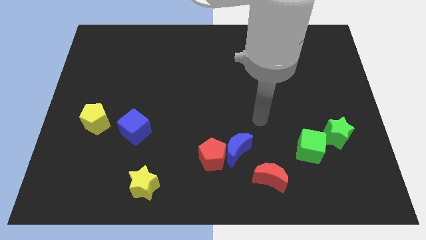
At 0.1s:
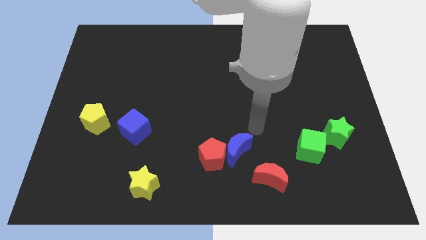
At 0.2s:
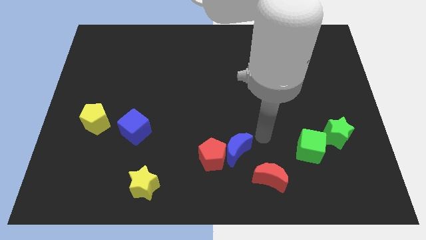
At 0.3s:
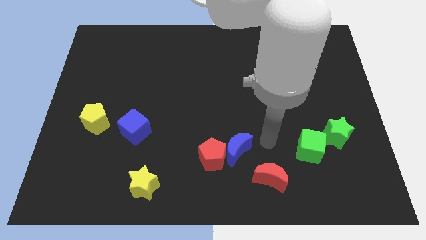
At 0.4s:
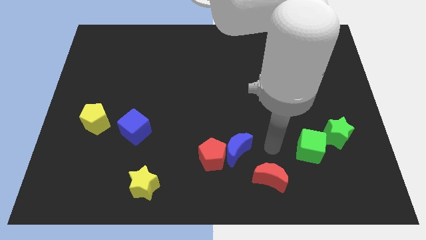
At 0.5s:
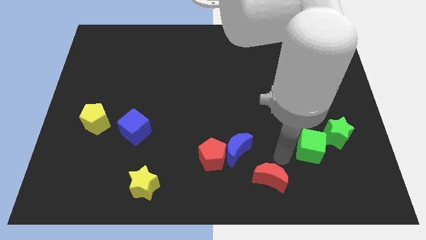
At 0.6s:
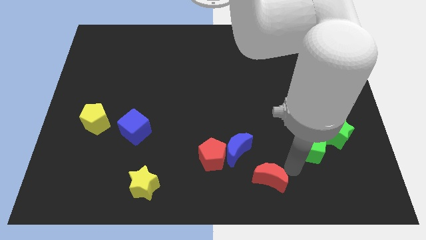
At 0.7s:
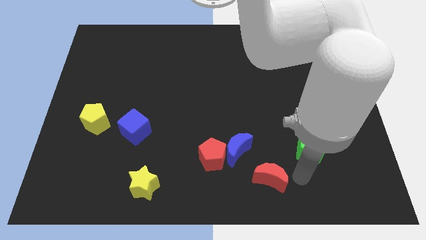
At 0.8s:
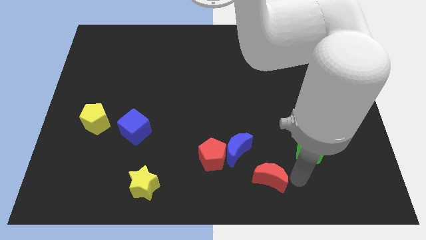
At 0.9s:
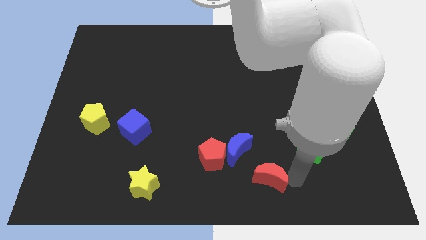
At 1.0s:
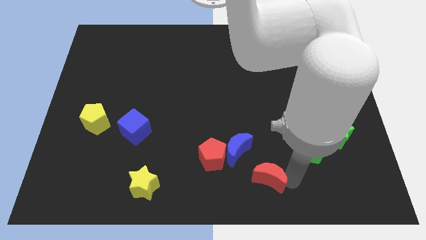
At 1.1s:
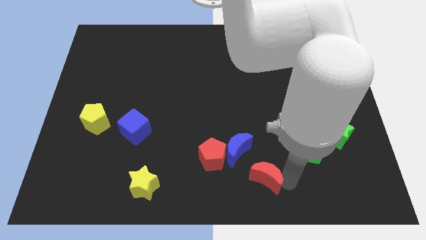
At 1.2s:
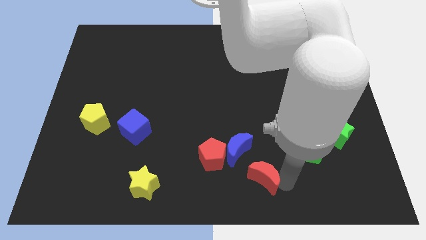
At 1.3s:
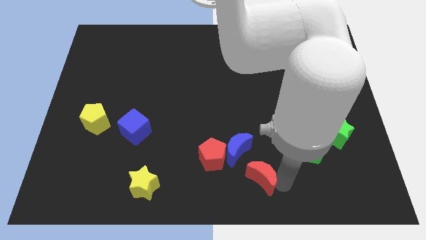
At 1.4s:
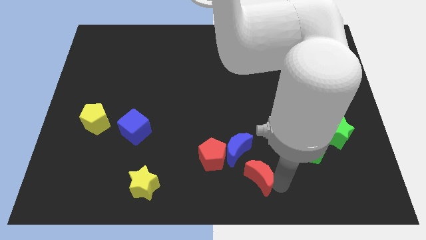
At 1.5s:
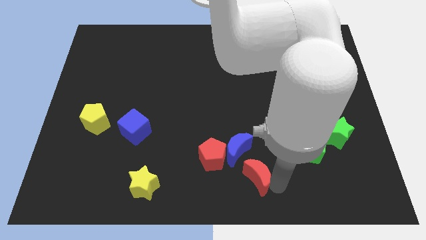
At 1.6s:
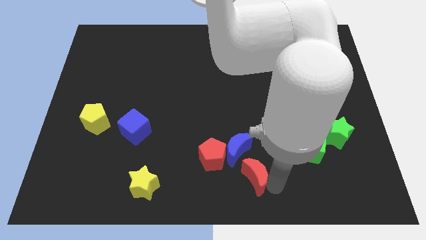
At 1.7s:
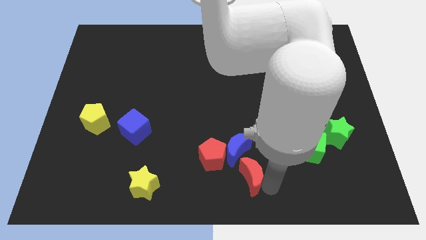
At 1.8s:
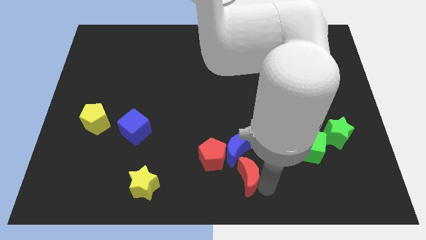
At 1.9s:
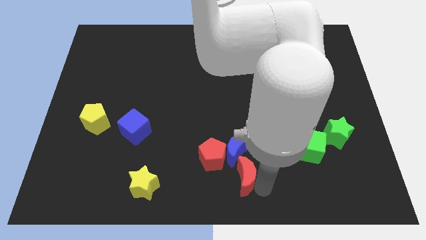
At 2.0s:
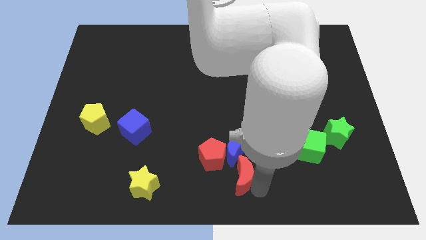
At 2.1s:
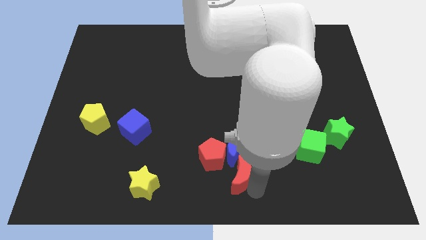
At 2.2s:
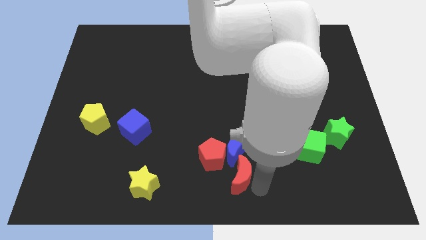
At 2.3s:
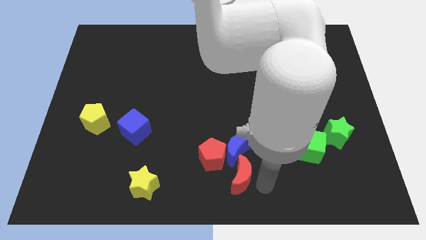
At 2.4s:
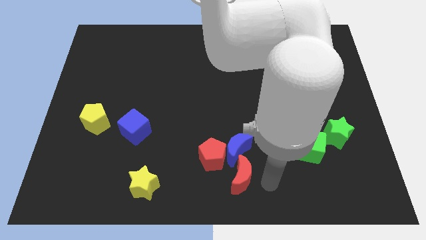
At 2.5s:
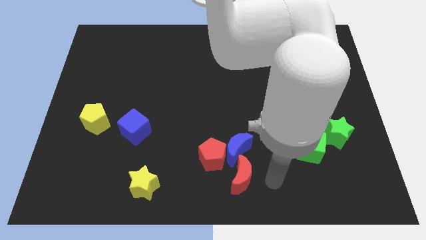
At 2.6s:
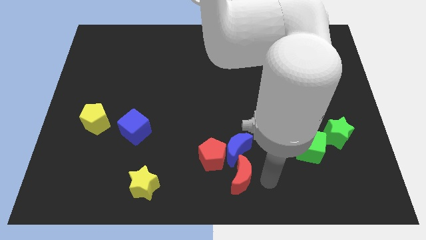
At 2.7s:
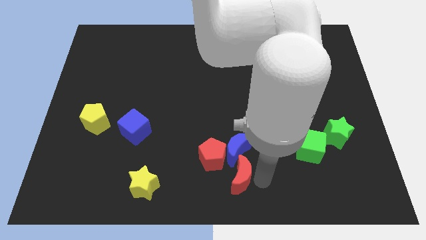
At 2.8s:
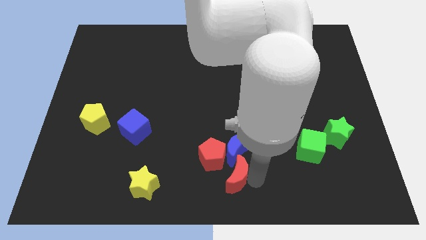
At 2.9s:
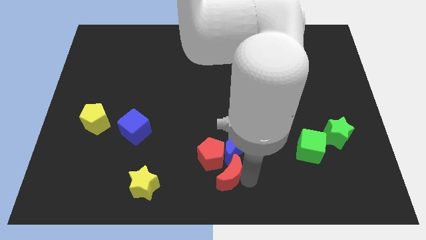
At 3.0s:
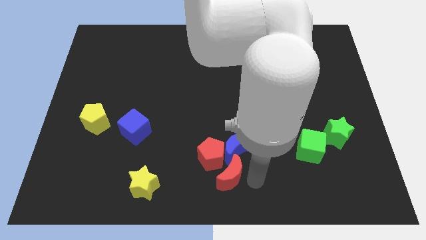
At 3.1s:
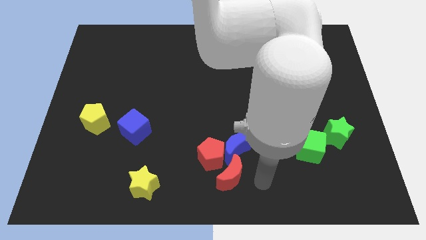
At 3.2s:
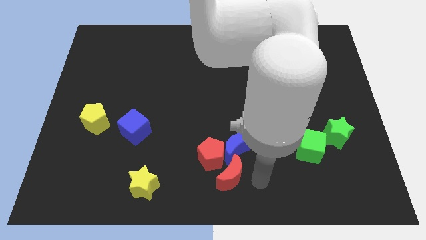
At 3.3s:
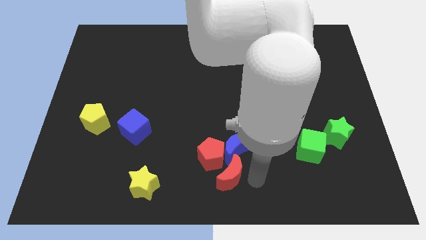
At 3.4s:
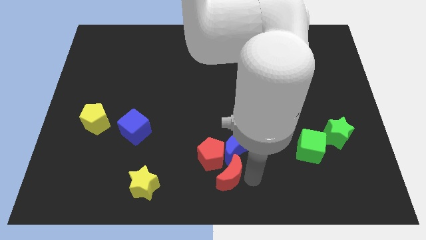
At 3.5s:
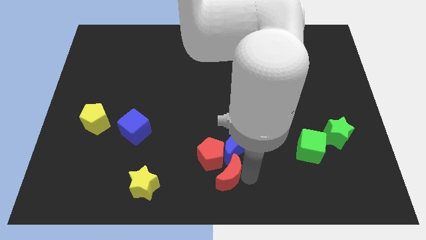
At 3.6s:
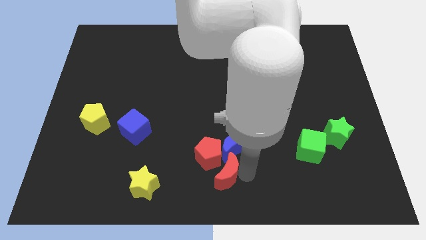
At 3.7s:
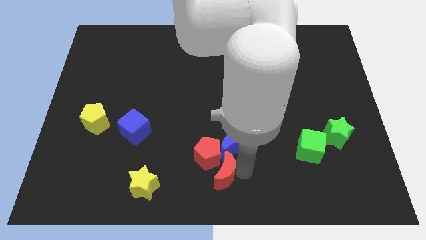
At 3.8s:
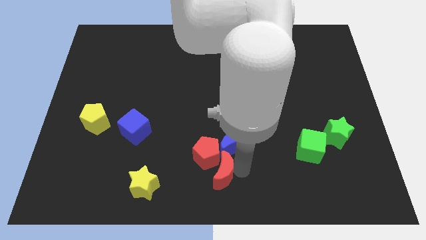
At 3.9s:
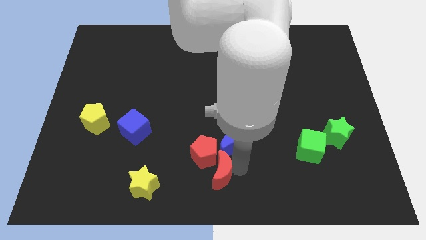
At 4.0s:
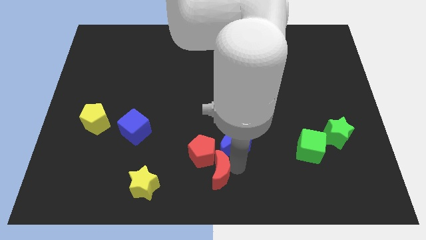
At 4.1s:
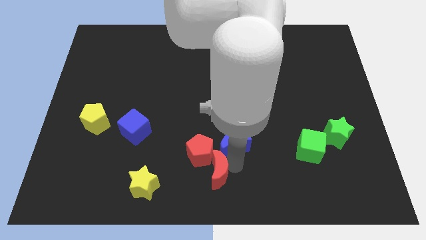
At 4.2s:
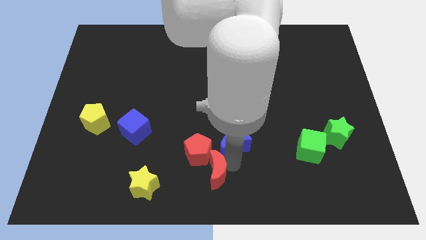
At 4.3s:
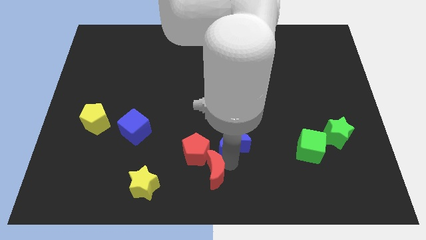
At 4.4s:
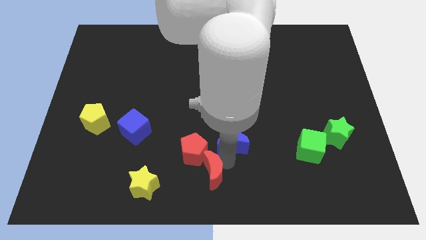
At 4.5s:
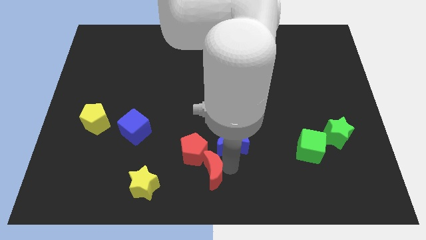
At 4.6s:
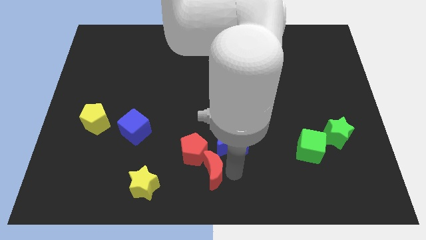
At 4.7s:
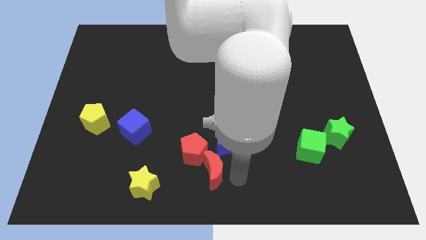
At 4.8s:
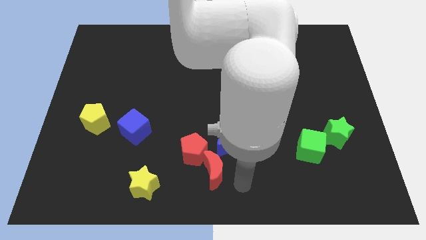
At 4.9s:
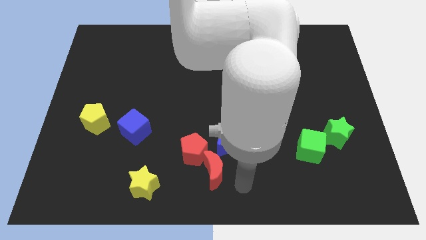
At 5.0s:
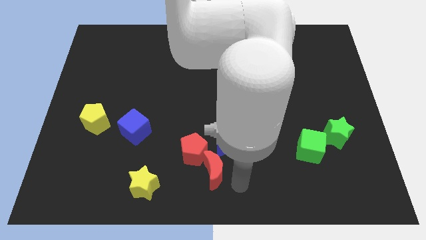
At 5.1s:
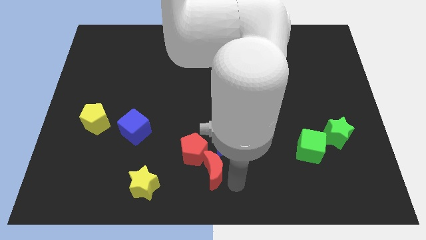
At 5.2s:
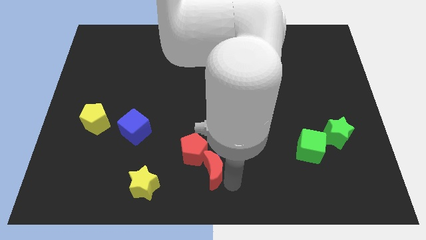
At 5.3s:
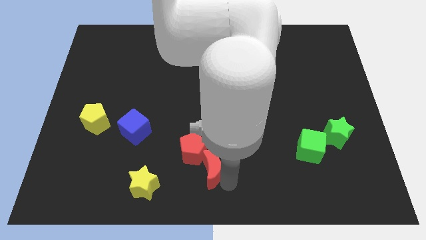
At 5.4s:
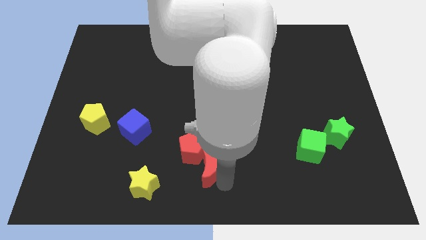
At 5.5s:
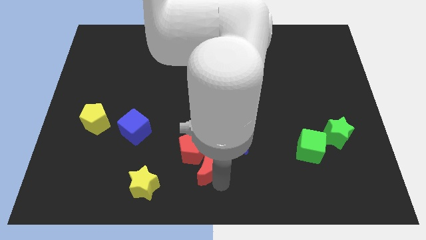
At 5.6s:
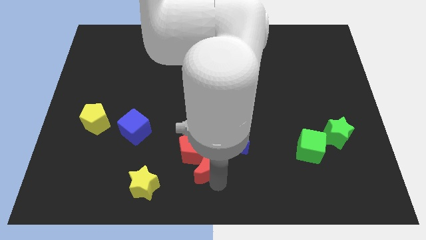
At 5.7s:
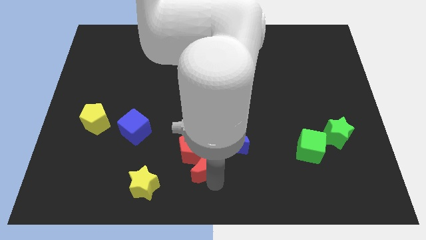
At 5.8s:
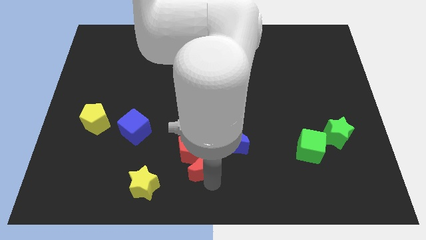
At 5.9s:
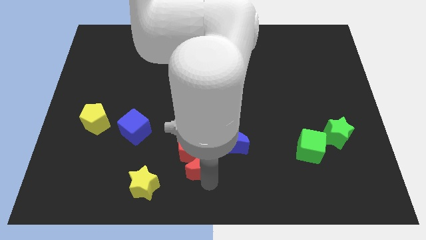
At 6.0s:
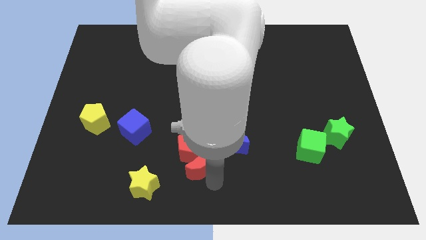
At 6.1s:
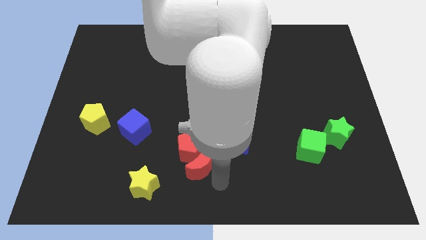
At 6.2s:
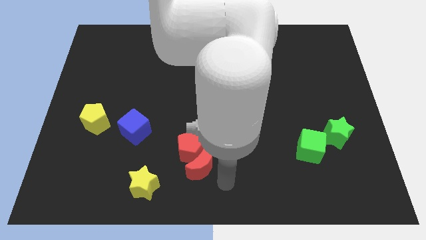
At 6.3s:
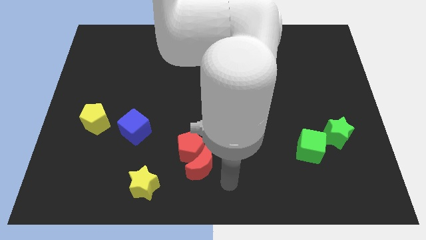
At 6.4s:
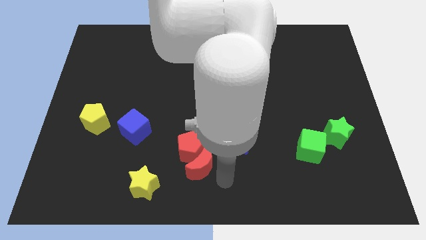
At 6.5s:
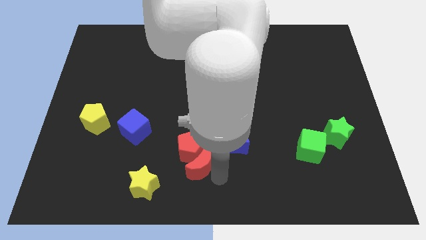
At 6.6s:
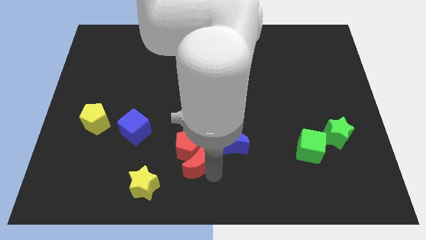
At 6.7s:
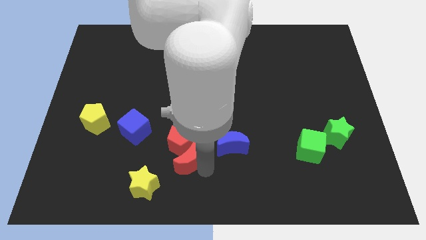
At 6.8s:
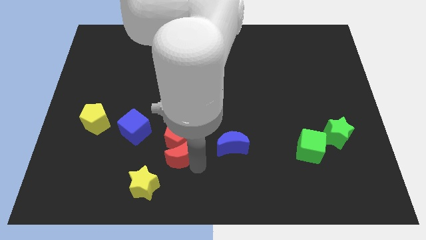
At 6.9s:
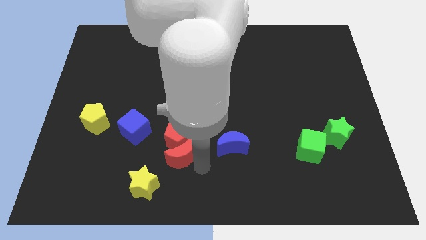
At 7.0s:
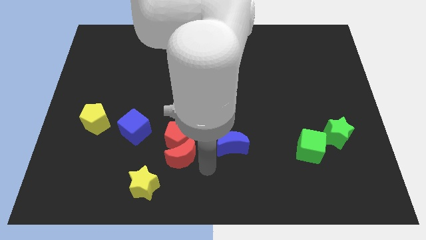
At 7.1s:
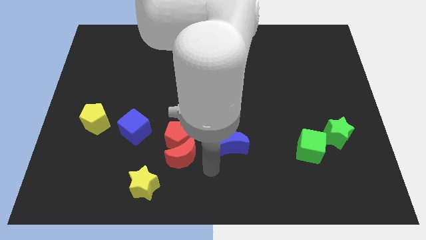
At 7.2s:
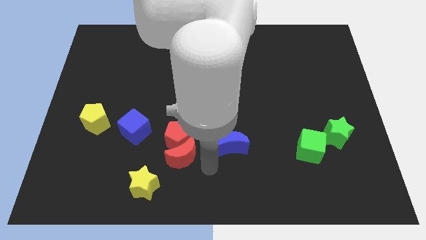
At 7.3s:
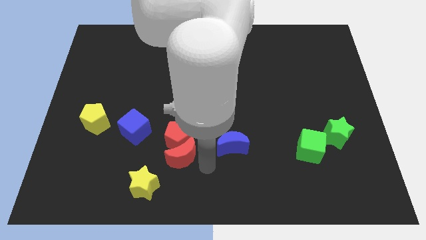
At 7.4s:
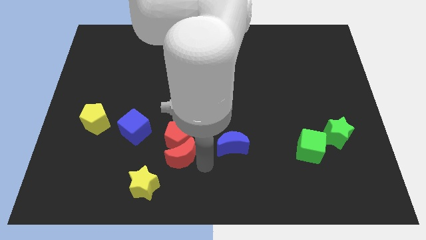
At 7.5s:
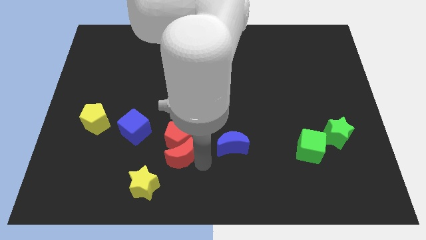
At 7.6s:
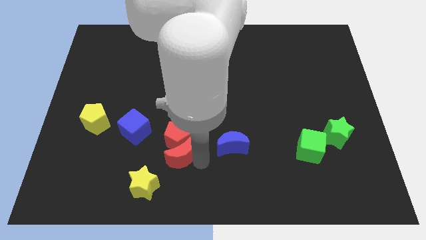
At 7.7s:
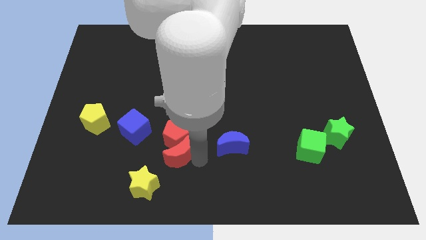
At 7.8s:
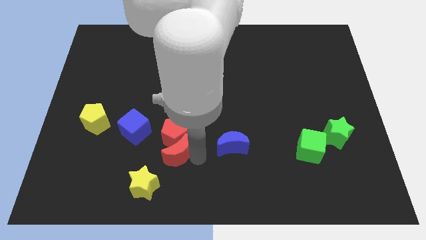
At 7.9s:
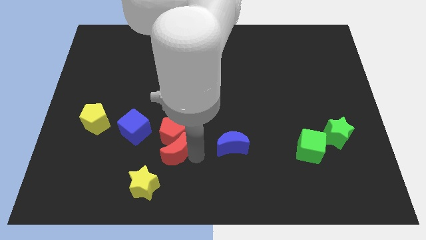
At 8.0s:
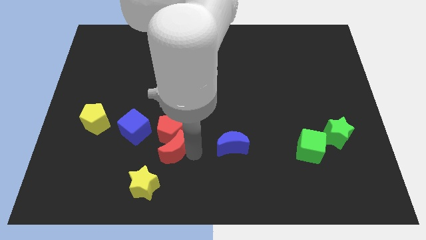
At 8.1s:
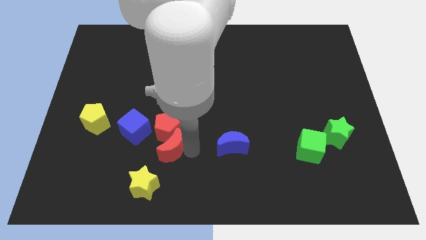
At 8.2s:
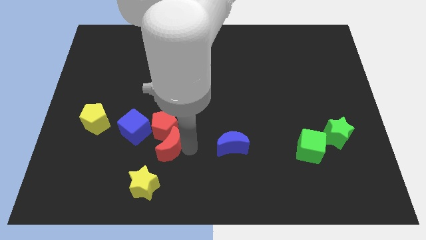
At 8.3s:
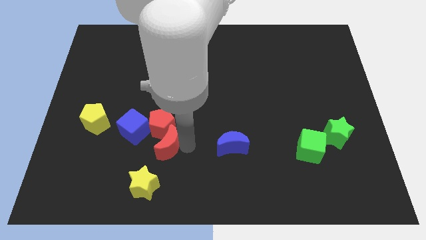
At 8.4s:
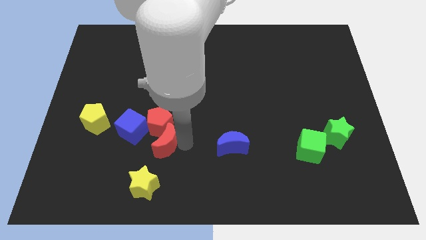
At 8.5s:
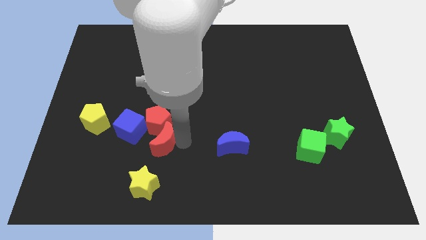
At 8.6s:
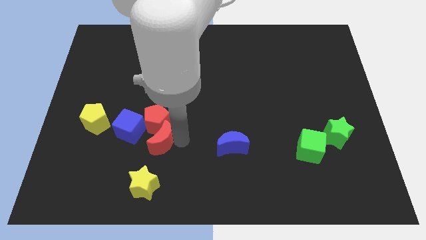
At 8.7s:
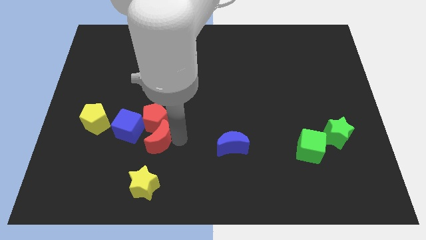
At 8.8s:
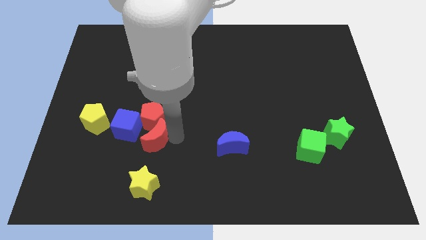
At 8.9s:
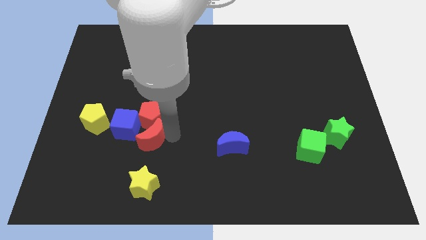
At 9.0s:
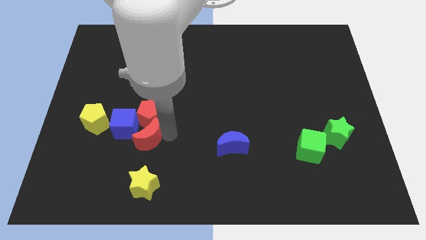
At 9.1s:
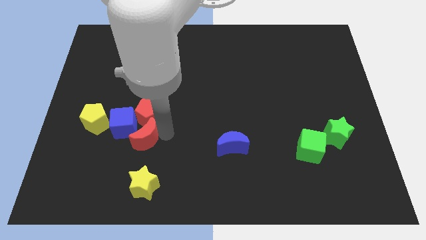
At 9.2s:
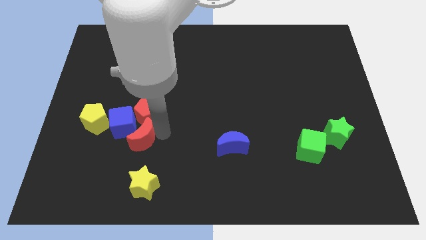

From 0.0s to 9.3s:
move the red moon close to the blue cube
